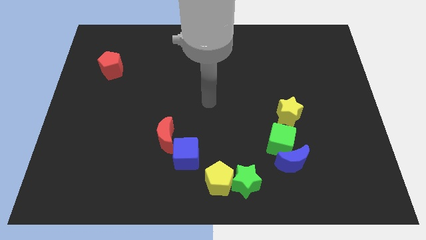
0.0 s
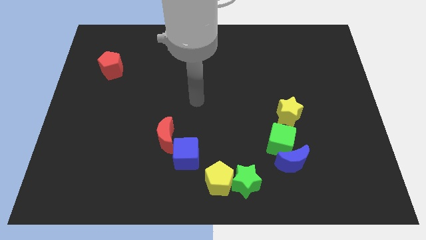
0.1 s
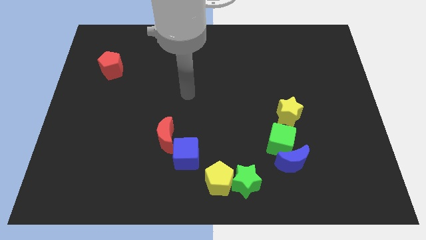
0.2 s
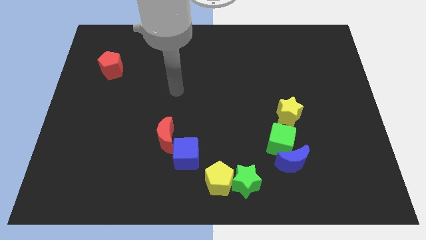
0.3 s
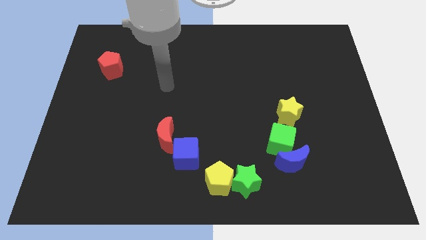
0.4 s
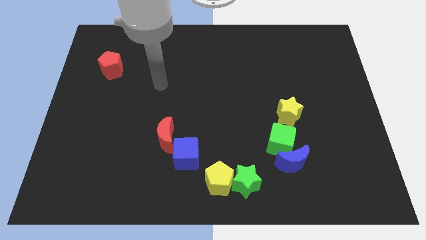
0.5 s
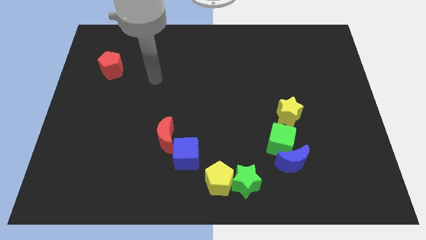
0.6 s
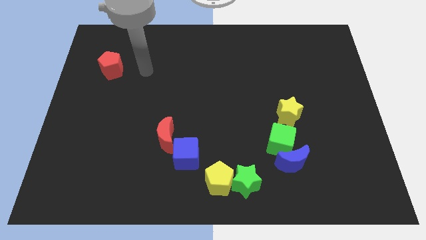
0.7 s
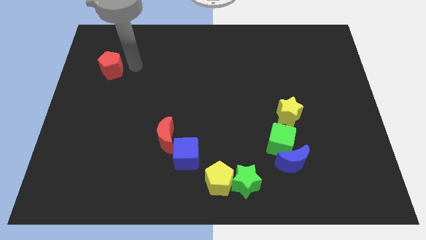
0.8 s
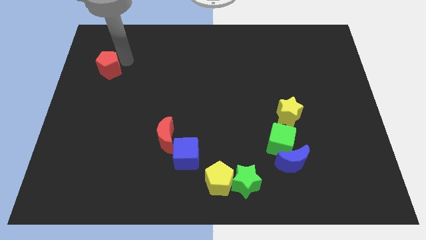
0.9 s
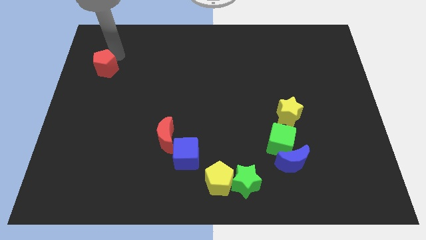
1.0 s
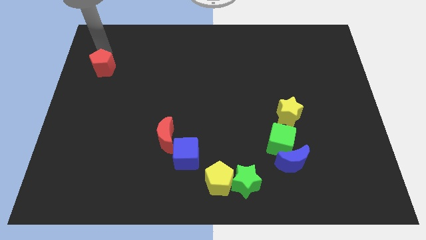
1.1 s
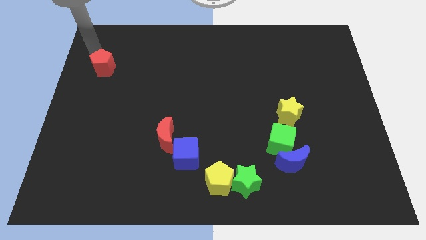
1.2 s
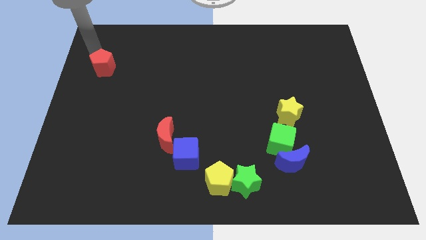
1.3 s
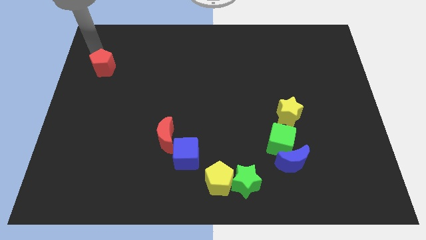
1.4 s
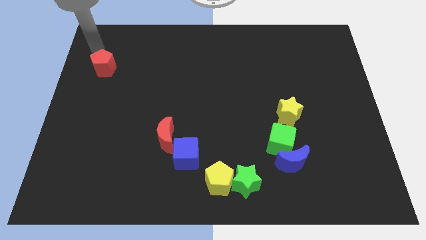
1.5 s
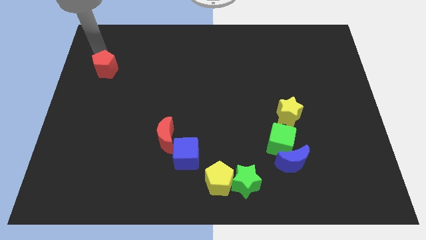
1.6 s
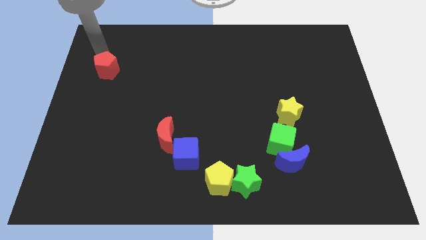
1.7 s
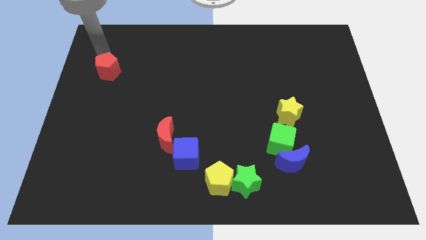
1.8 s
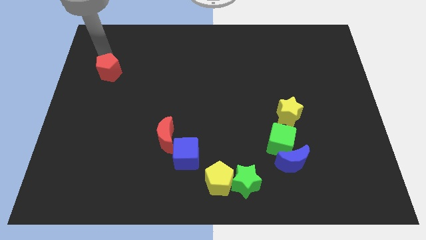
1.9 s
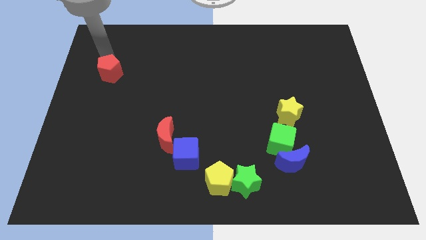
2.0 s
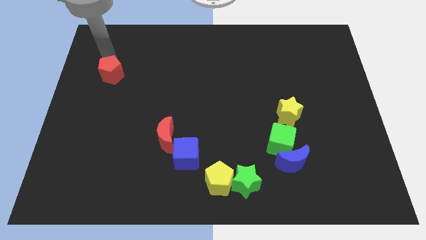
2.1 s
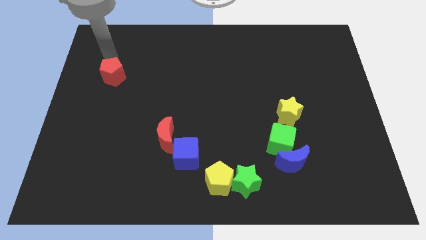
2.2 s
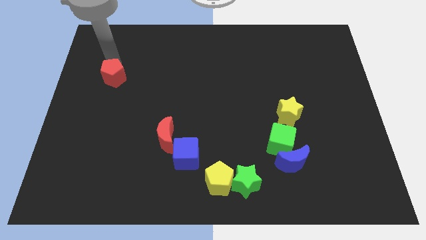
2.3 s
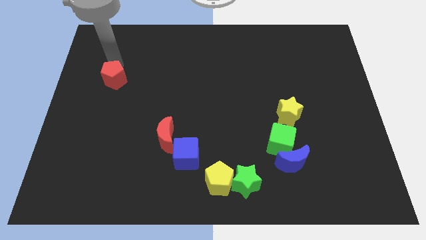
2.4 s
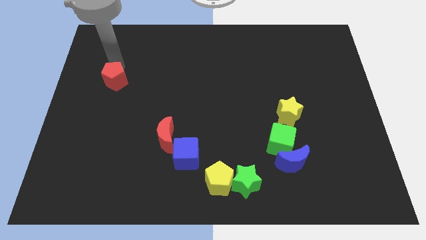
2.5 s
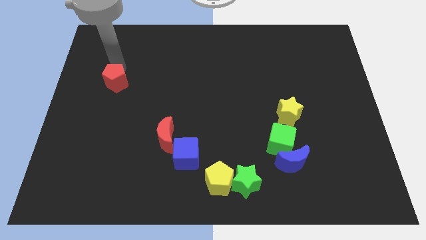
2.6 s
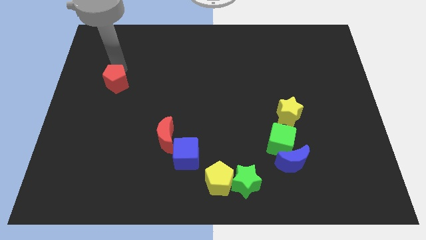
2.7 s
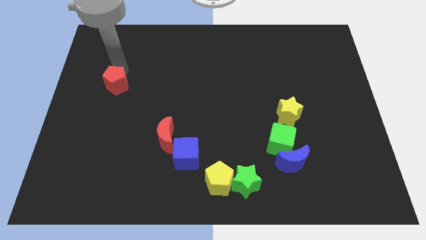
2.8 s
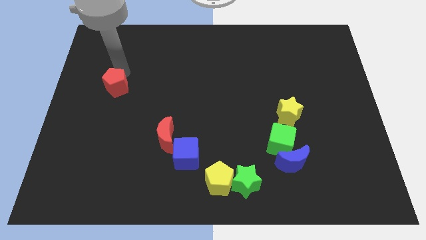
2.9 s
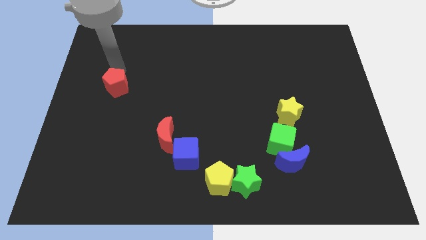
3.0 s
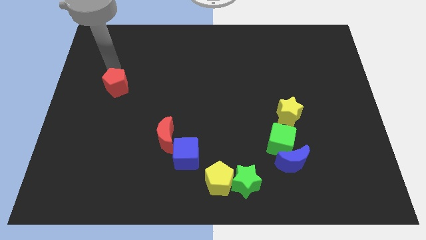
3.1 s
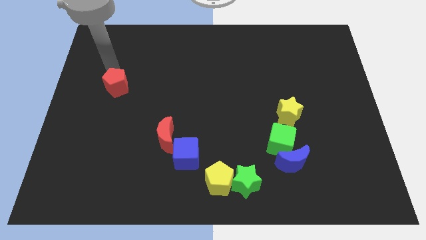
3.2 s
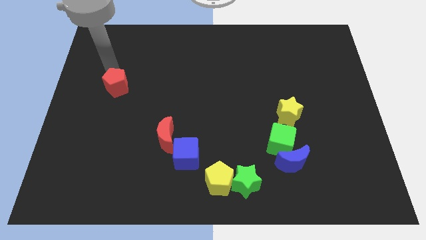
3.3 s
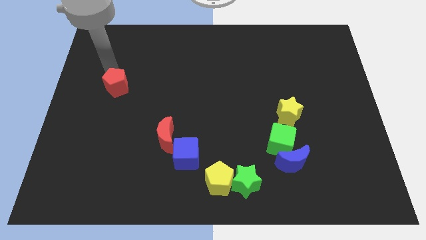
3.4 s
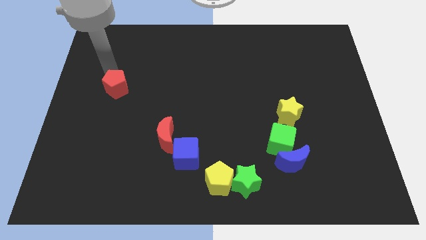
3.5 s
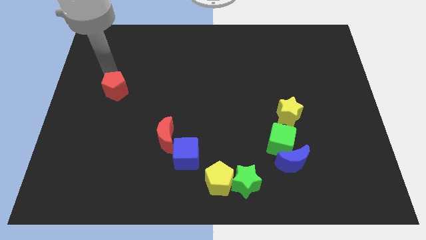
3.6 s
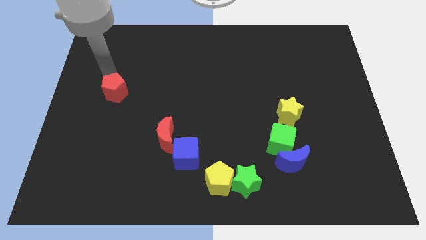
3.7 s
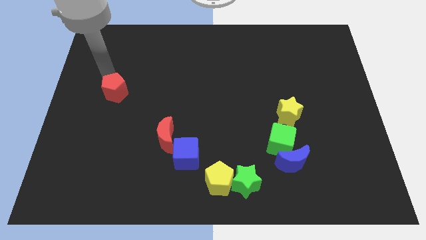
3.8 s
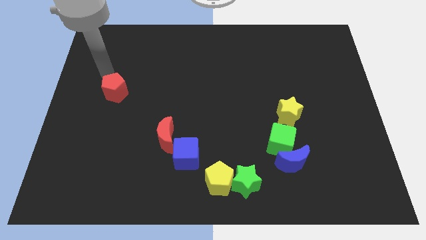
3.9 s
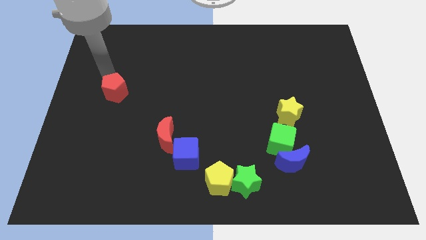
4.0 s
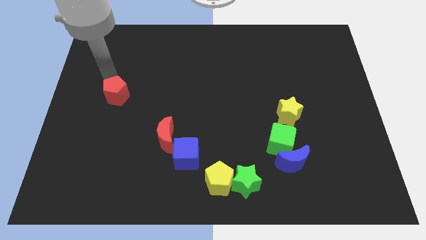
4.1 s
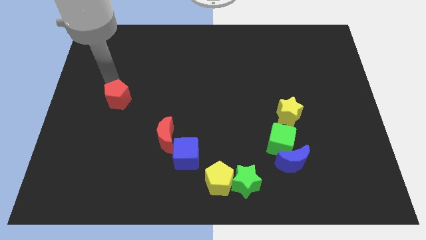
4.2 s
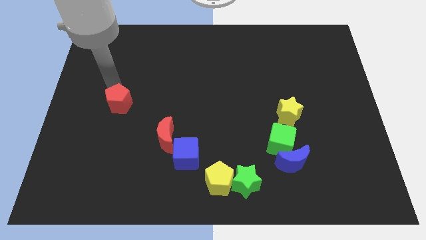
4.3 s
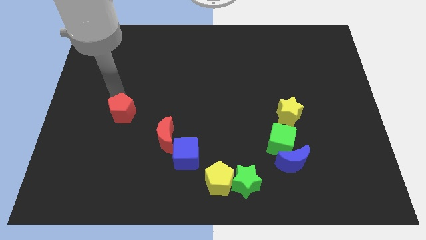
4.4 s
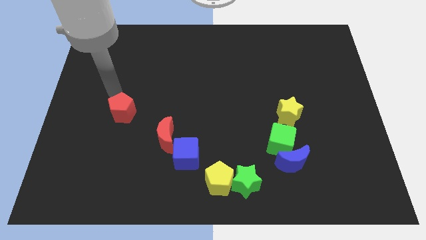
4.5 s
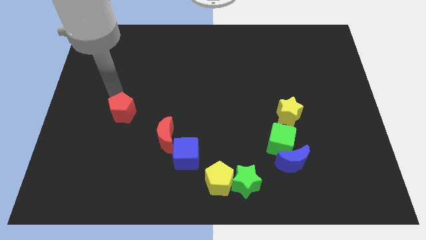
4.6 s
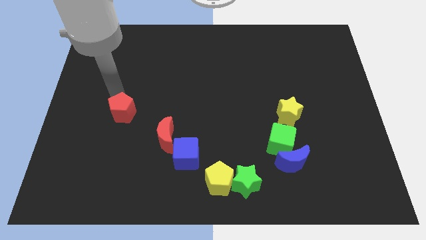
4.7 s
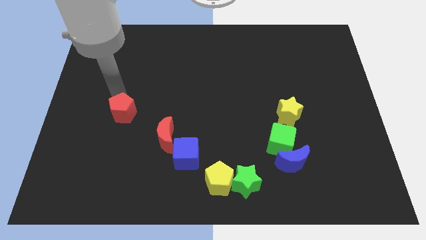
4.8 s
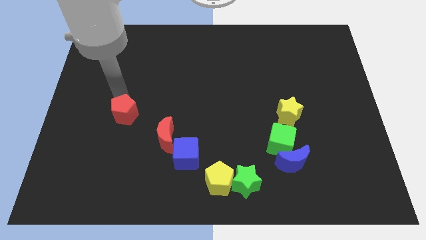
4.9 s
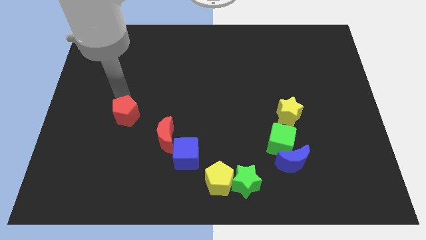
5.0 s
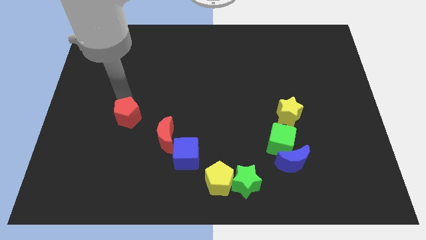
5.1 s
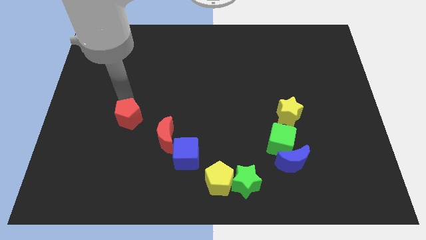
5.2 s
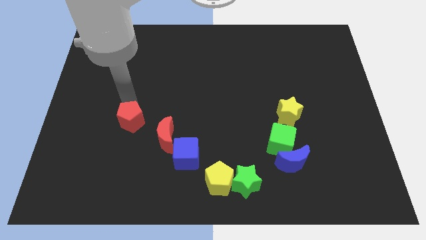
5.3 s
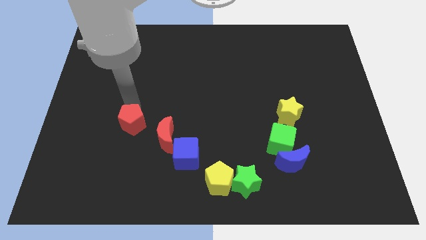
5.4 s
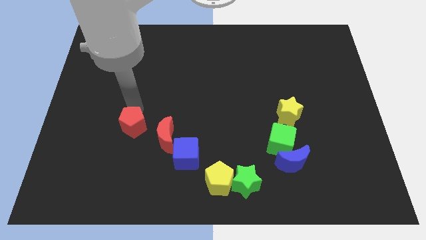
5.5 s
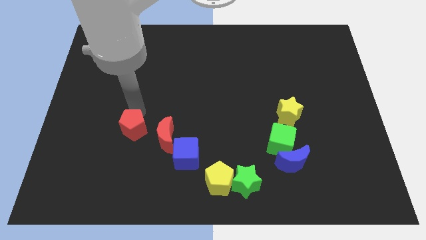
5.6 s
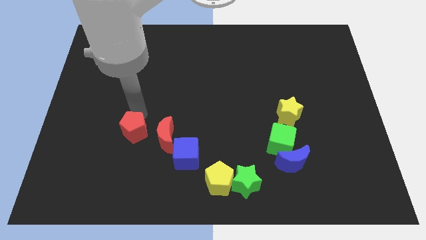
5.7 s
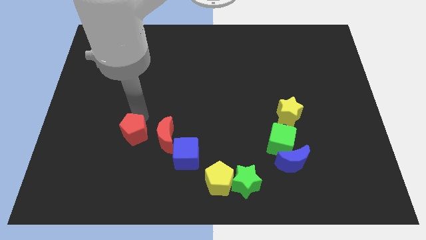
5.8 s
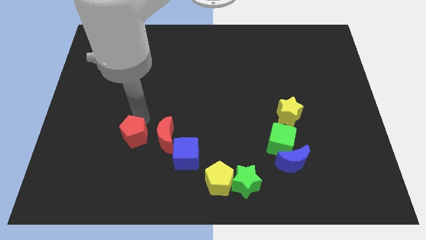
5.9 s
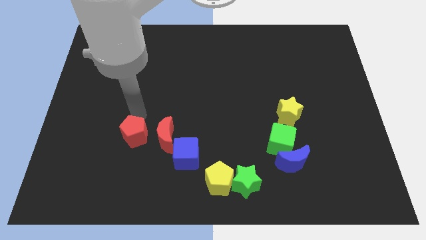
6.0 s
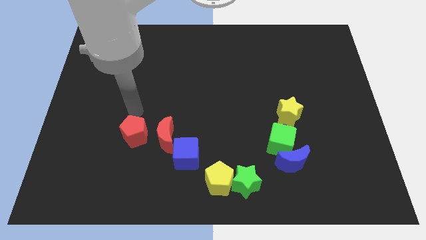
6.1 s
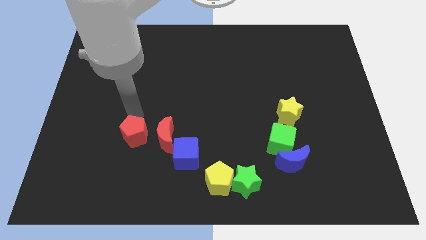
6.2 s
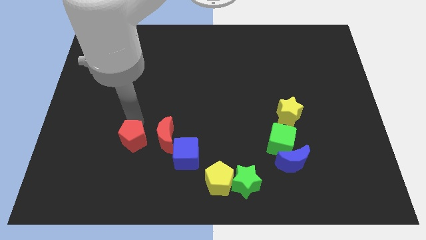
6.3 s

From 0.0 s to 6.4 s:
slide the red pentagon to the left of the blue cube
